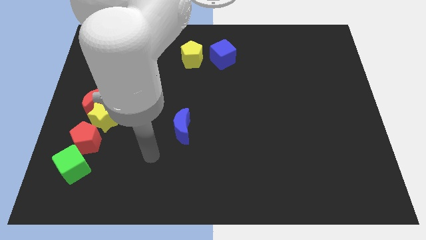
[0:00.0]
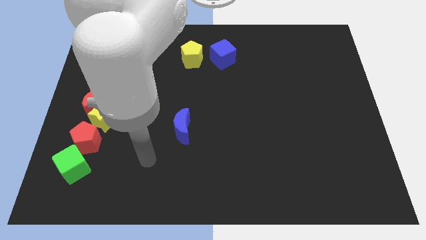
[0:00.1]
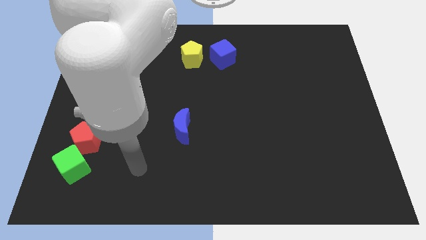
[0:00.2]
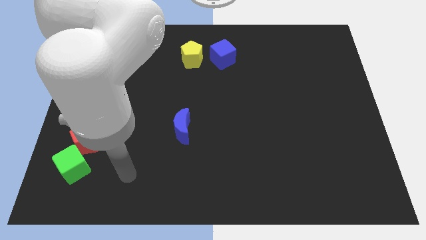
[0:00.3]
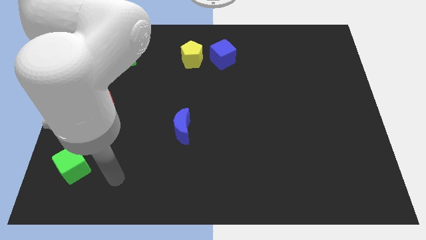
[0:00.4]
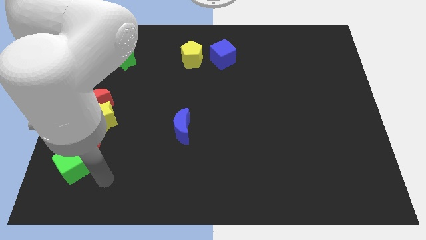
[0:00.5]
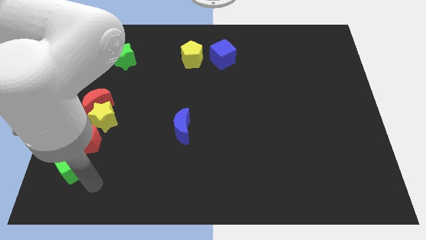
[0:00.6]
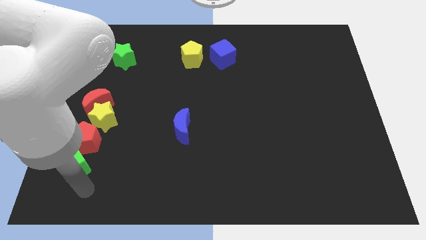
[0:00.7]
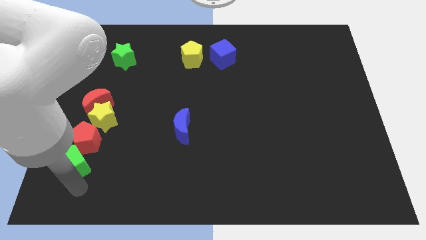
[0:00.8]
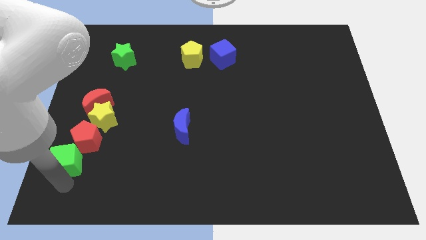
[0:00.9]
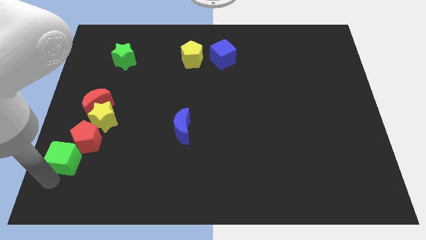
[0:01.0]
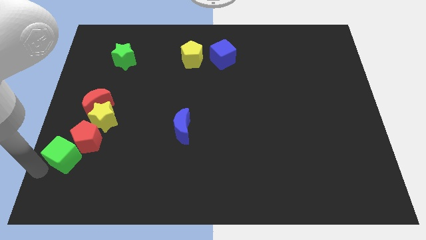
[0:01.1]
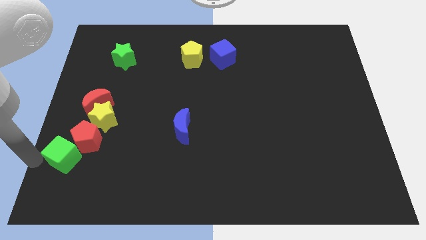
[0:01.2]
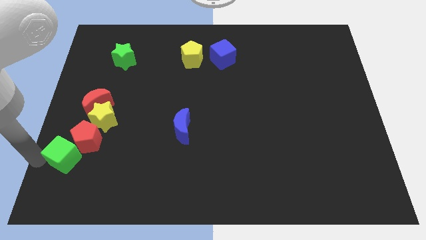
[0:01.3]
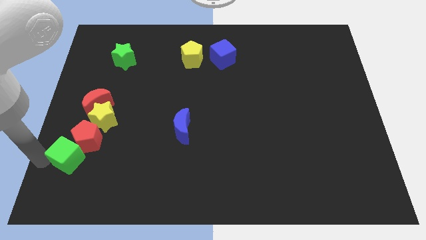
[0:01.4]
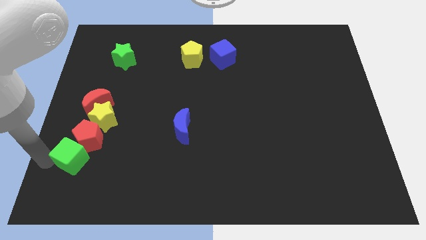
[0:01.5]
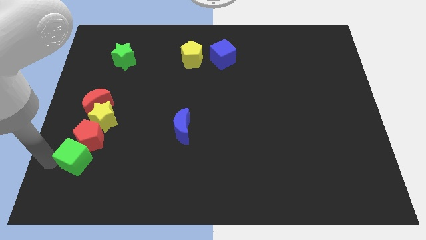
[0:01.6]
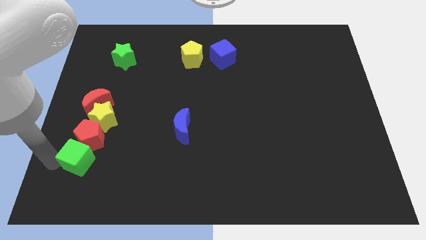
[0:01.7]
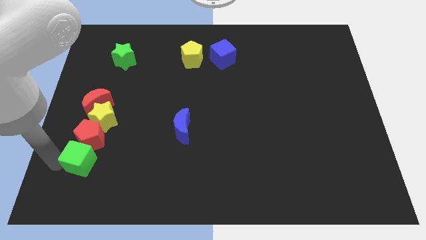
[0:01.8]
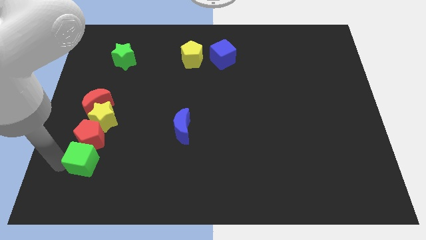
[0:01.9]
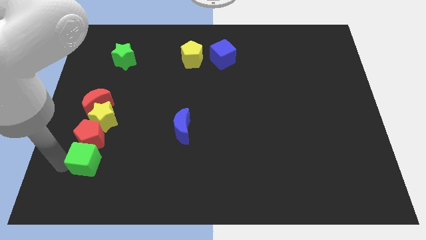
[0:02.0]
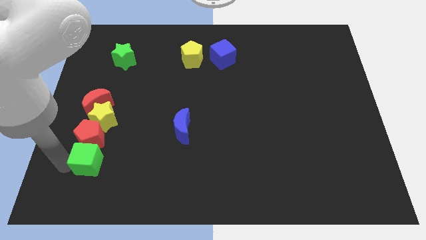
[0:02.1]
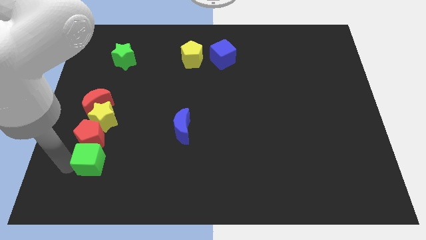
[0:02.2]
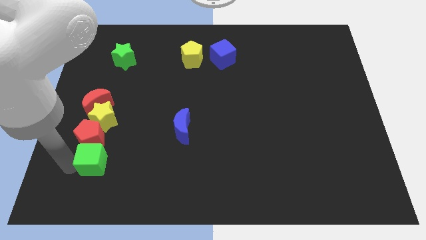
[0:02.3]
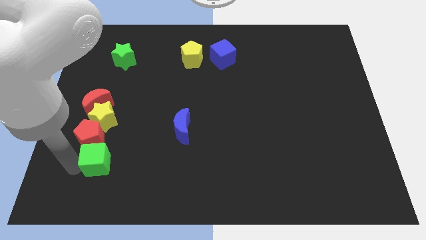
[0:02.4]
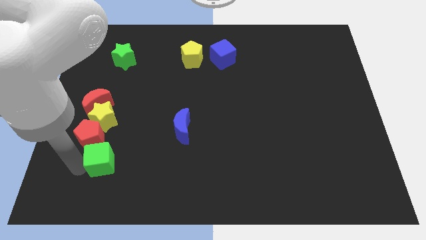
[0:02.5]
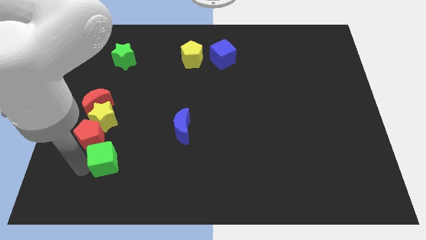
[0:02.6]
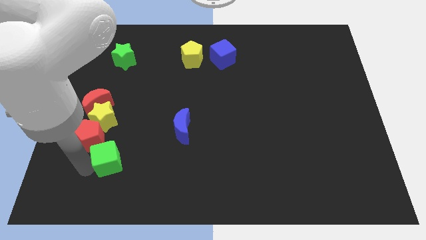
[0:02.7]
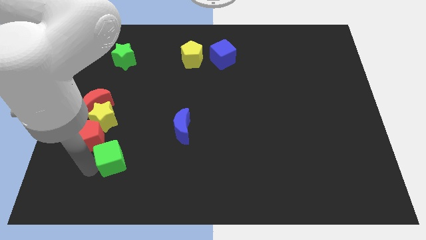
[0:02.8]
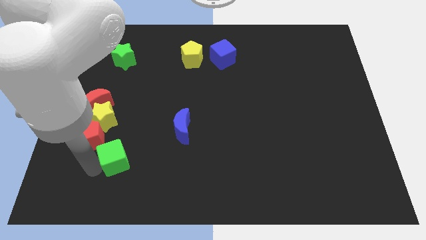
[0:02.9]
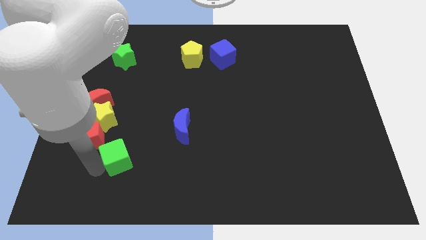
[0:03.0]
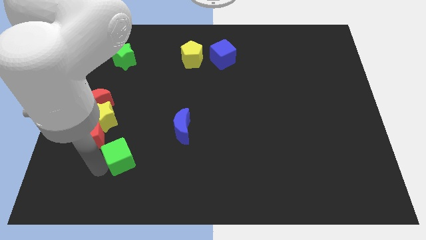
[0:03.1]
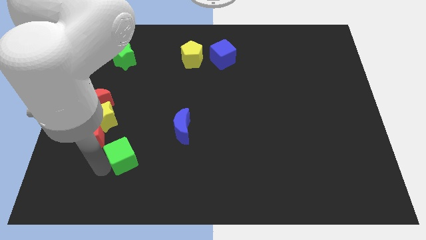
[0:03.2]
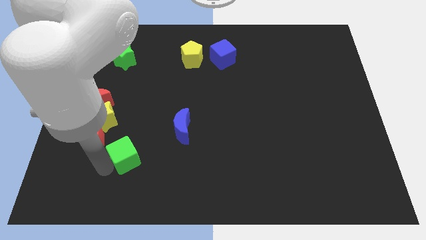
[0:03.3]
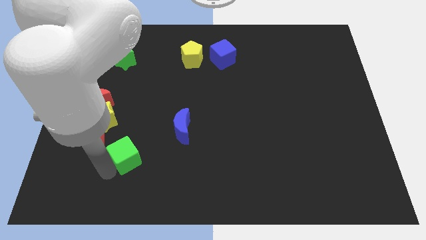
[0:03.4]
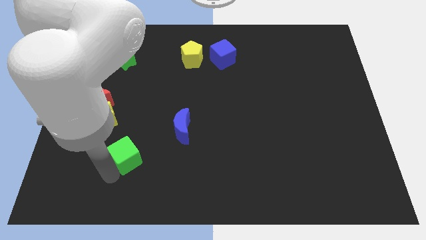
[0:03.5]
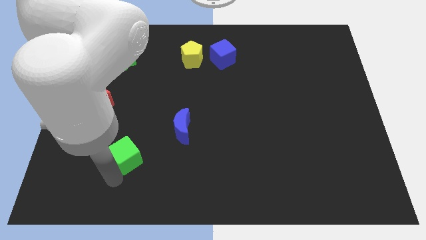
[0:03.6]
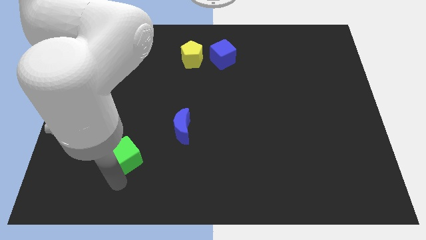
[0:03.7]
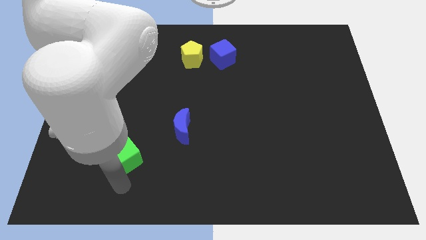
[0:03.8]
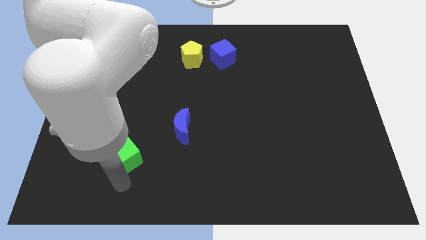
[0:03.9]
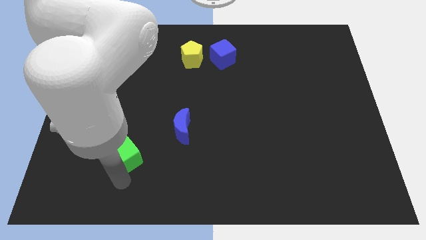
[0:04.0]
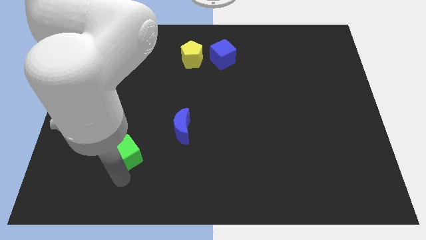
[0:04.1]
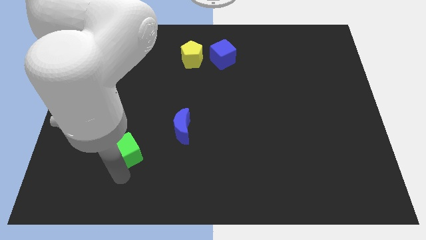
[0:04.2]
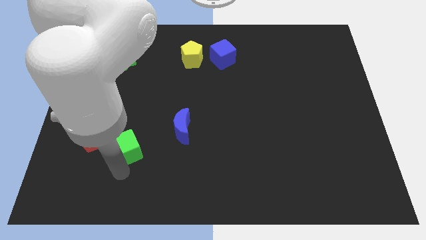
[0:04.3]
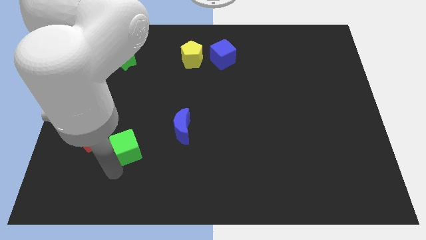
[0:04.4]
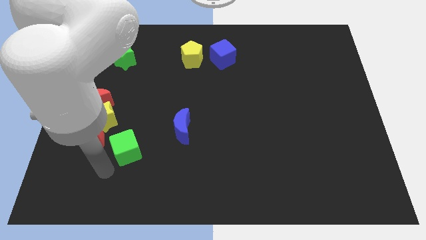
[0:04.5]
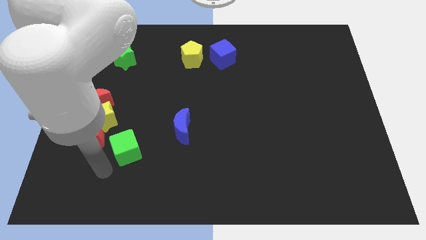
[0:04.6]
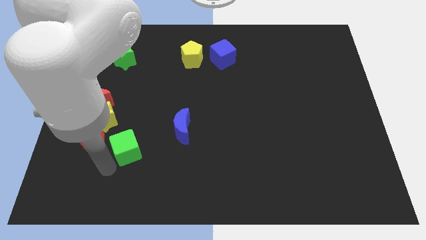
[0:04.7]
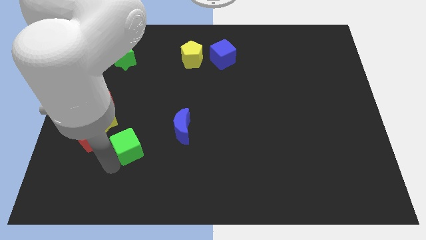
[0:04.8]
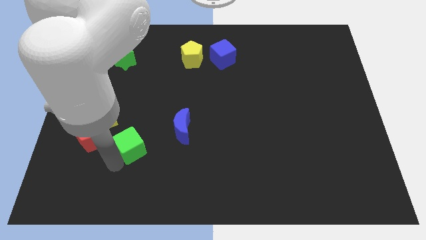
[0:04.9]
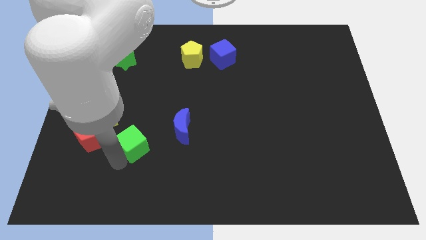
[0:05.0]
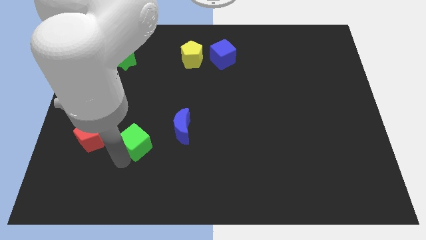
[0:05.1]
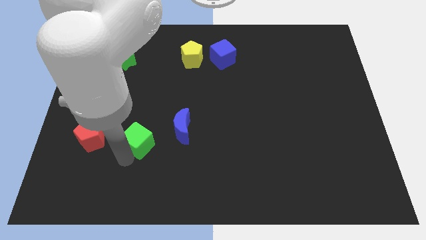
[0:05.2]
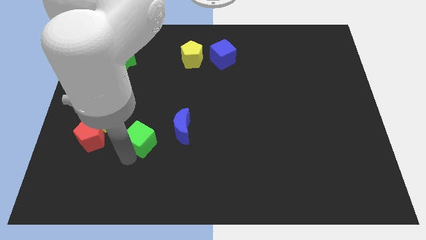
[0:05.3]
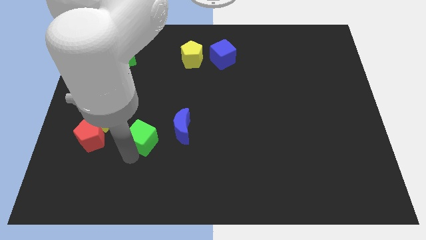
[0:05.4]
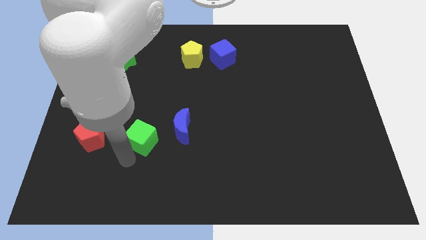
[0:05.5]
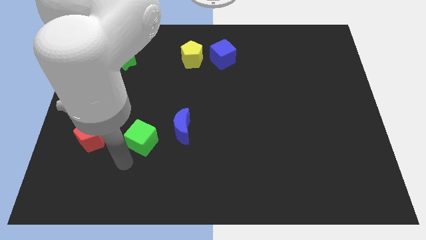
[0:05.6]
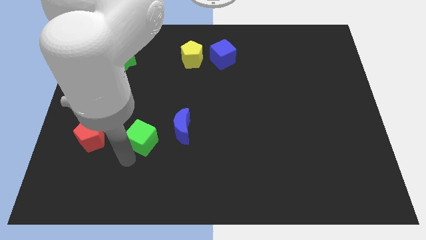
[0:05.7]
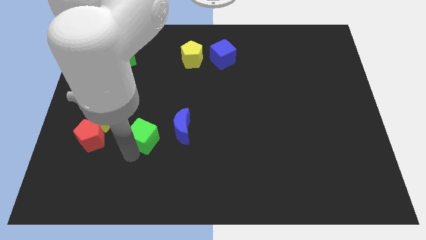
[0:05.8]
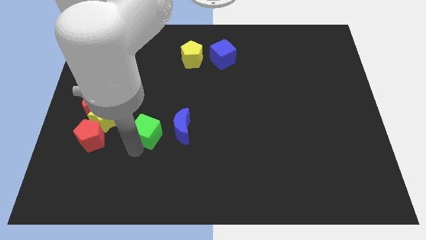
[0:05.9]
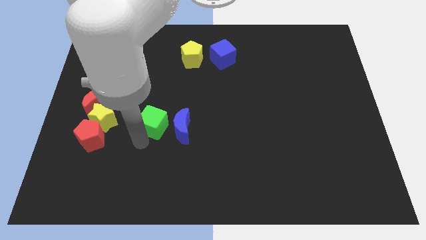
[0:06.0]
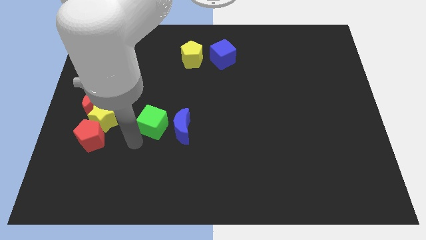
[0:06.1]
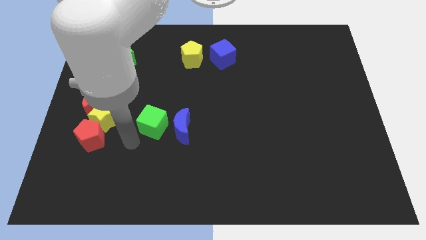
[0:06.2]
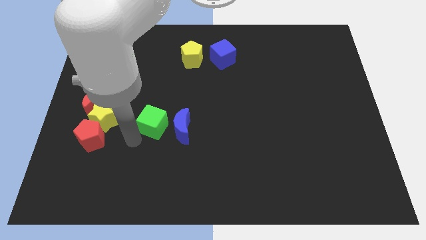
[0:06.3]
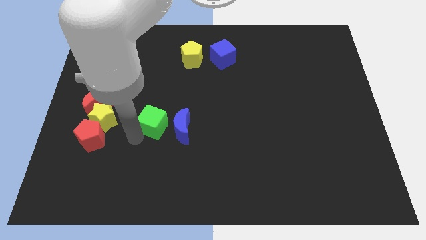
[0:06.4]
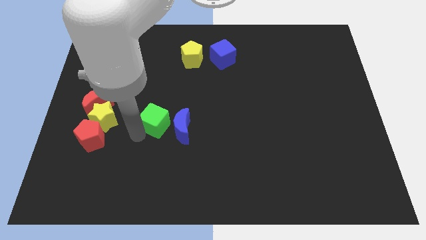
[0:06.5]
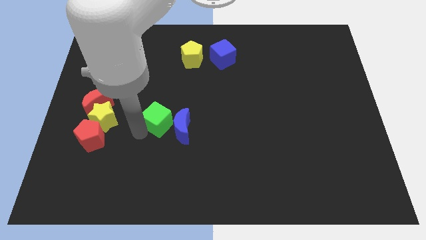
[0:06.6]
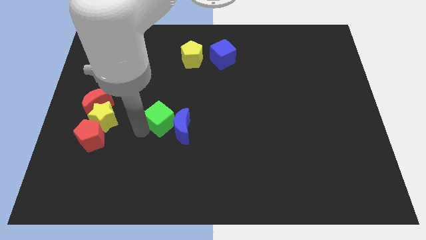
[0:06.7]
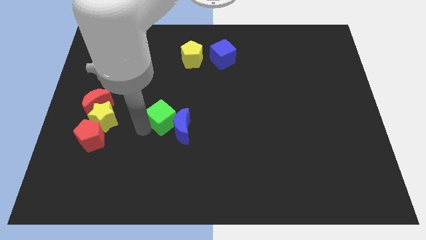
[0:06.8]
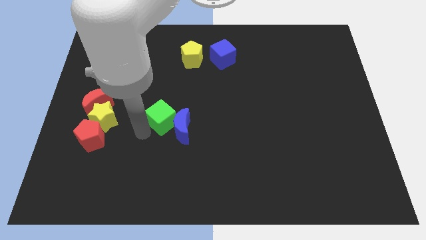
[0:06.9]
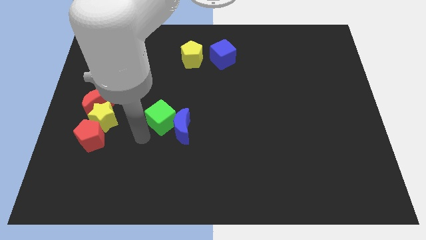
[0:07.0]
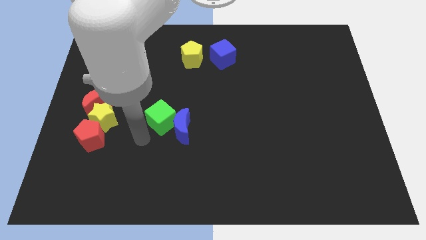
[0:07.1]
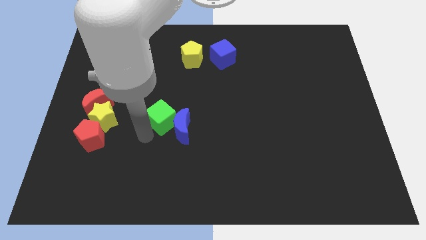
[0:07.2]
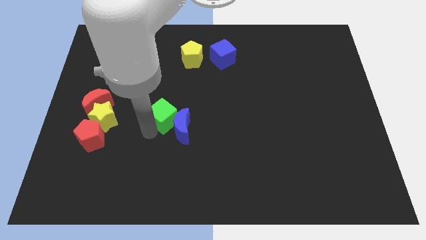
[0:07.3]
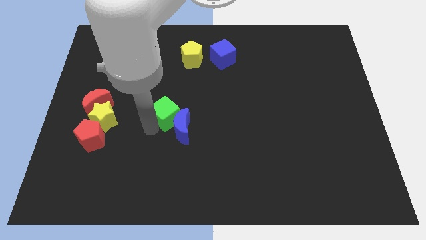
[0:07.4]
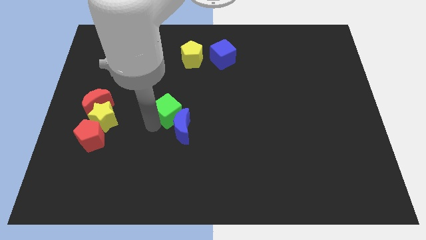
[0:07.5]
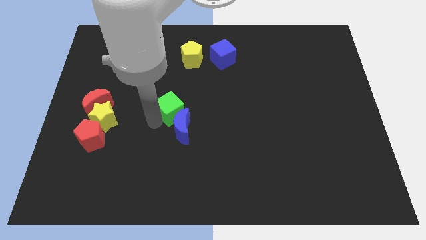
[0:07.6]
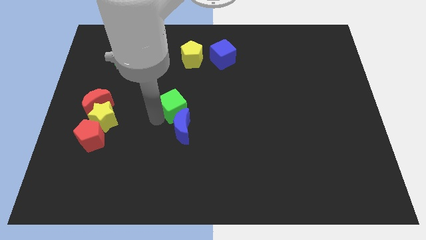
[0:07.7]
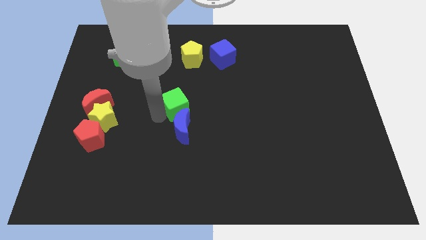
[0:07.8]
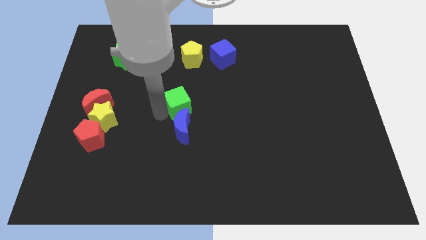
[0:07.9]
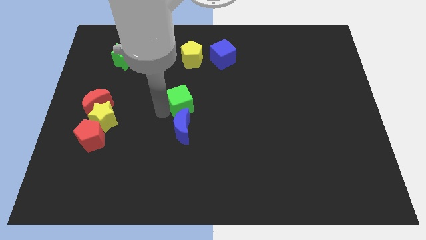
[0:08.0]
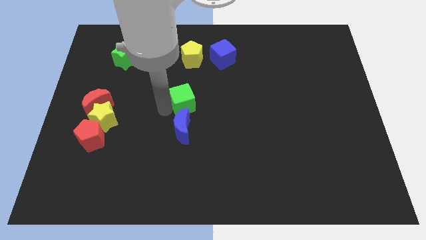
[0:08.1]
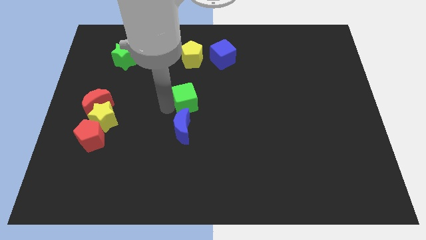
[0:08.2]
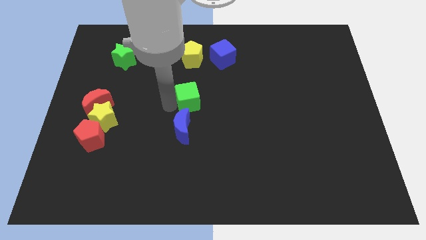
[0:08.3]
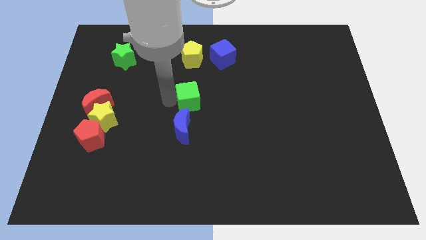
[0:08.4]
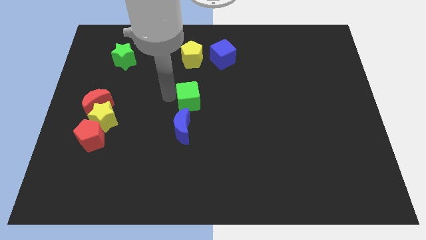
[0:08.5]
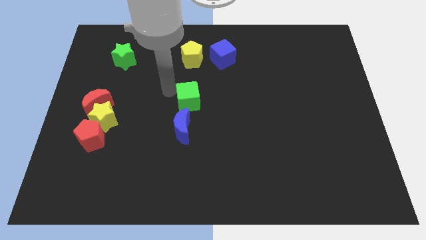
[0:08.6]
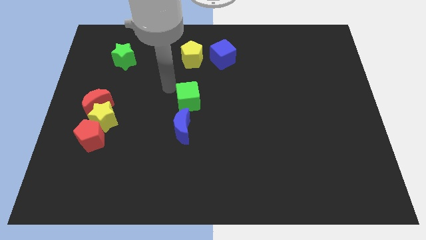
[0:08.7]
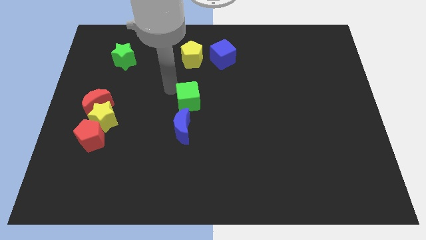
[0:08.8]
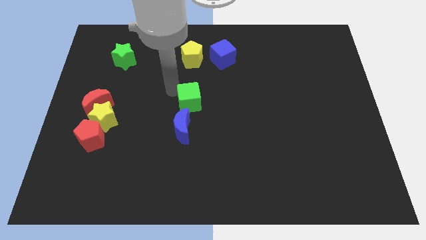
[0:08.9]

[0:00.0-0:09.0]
move the green cube diagonally up and to the right of the blue moon
